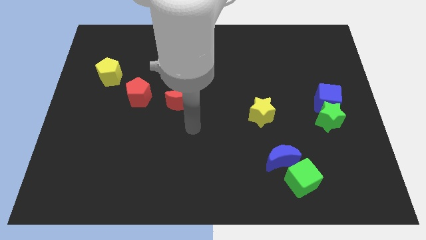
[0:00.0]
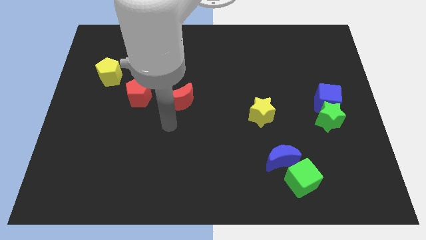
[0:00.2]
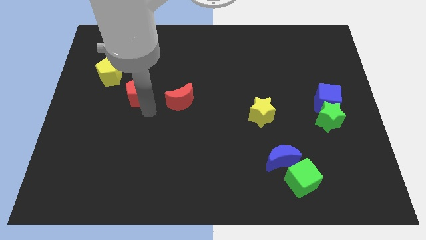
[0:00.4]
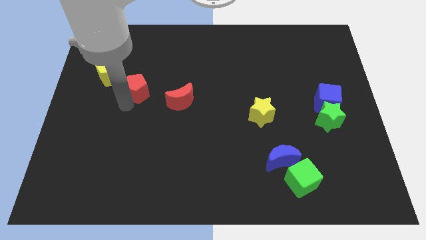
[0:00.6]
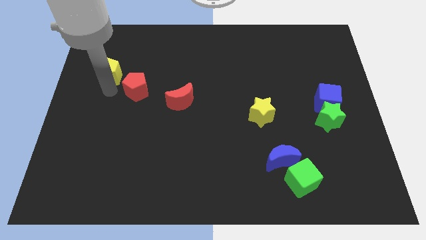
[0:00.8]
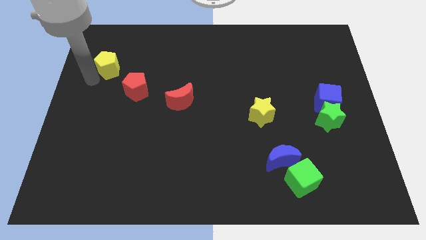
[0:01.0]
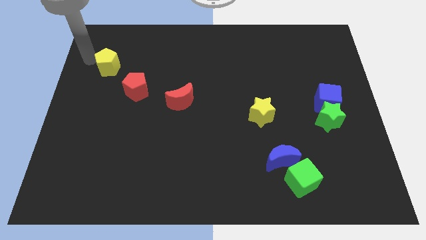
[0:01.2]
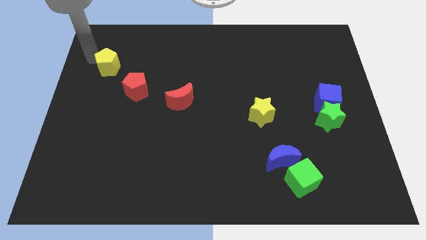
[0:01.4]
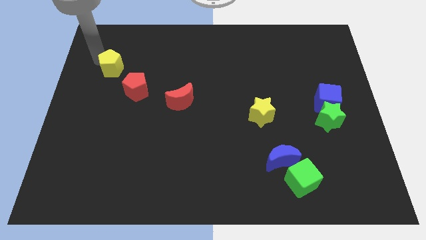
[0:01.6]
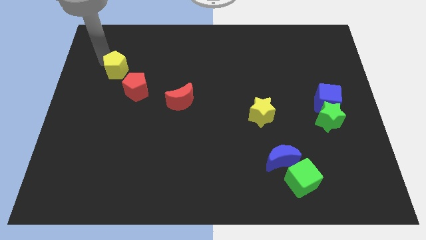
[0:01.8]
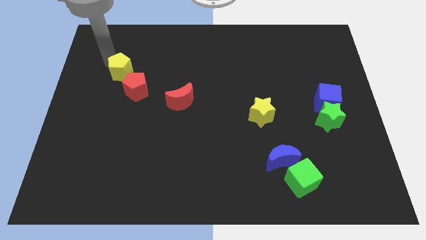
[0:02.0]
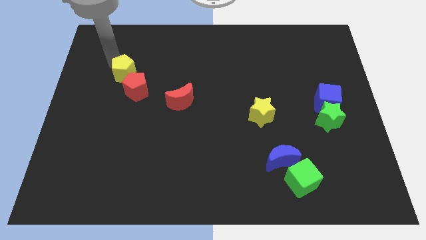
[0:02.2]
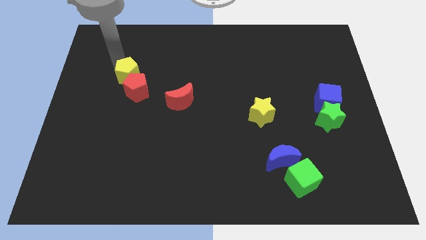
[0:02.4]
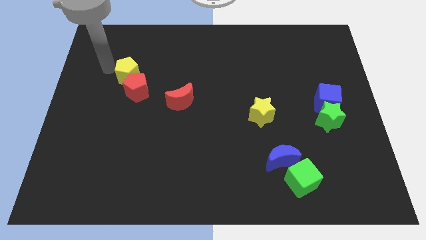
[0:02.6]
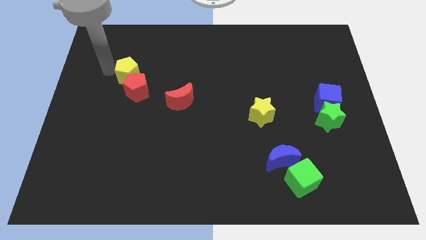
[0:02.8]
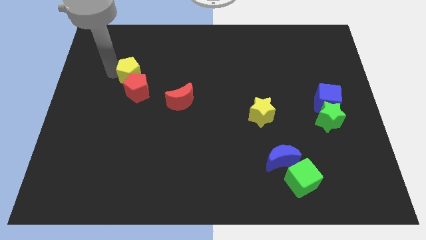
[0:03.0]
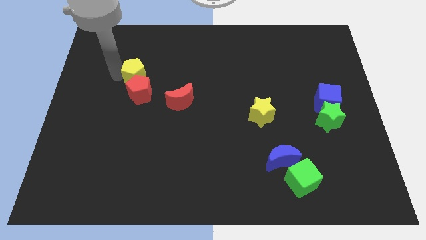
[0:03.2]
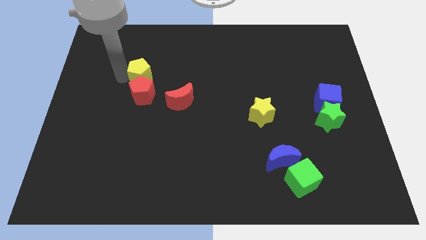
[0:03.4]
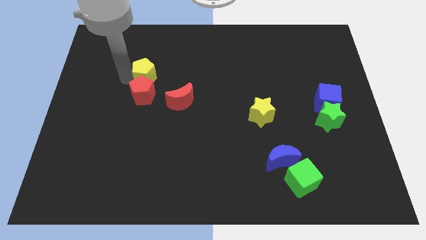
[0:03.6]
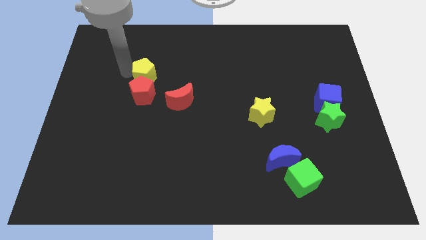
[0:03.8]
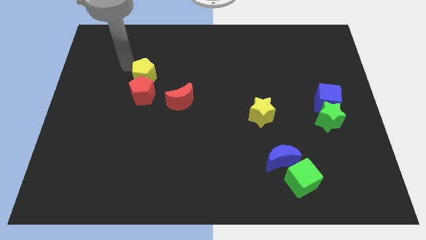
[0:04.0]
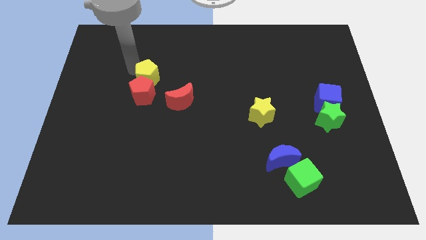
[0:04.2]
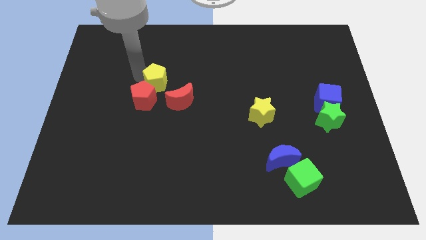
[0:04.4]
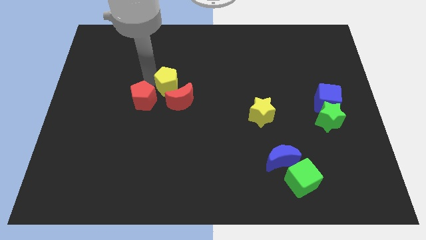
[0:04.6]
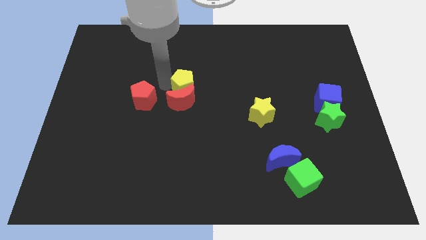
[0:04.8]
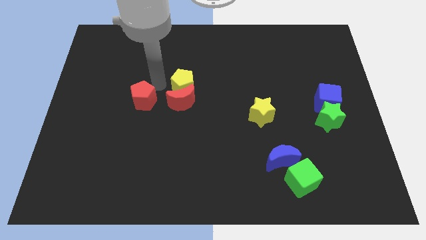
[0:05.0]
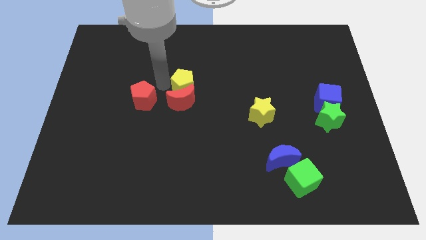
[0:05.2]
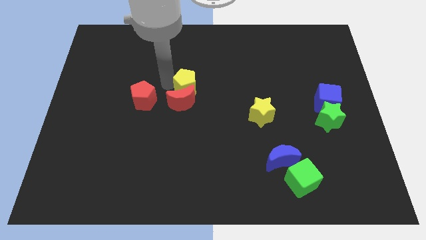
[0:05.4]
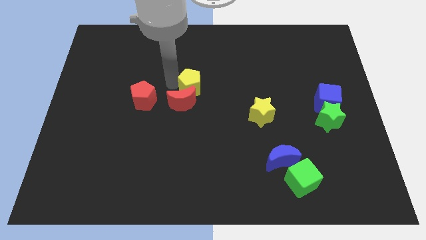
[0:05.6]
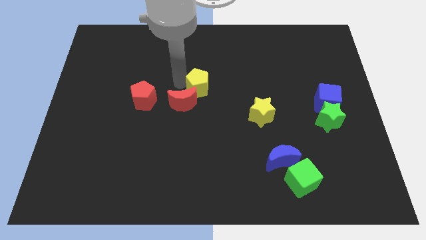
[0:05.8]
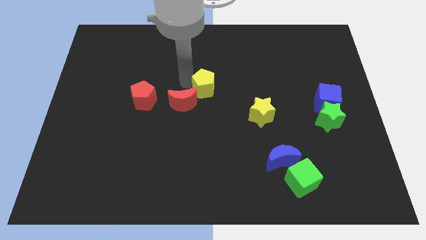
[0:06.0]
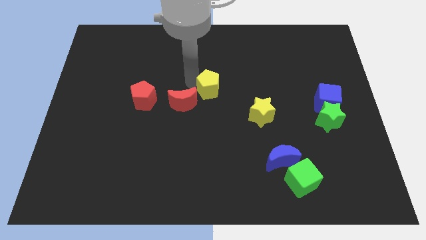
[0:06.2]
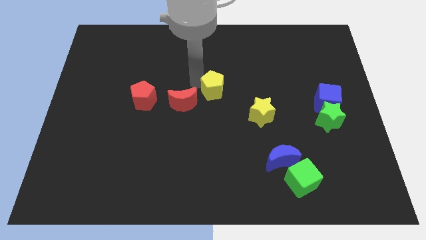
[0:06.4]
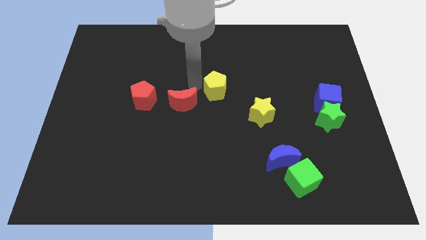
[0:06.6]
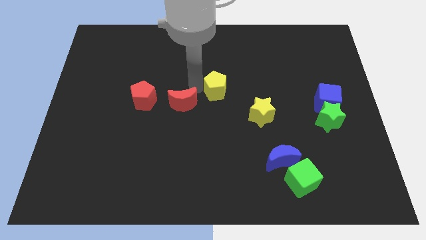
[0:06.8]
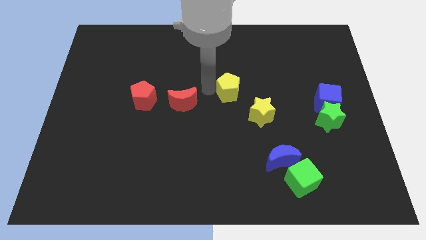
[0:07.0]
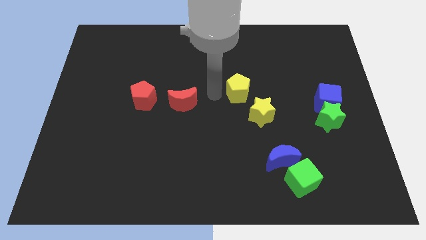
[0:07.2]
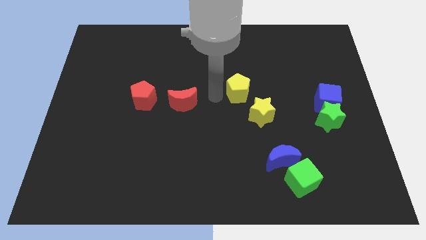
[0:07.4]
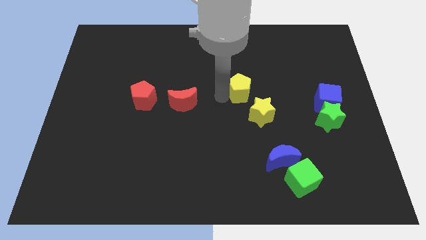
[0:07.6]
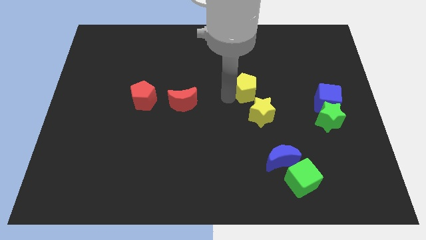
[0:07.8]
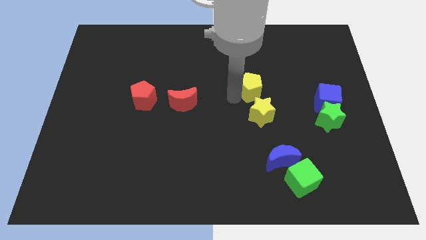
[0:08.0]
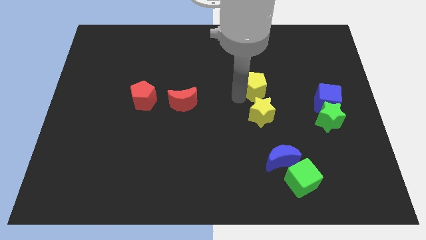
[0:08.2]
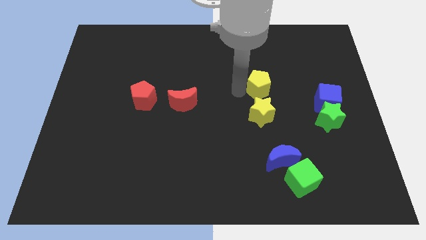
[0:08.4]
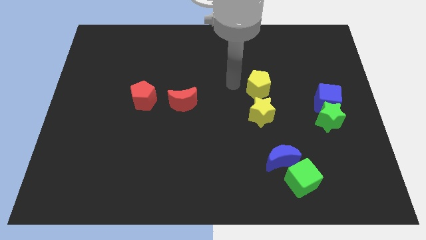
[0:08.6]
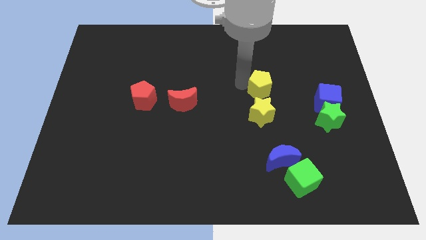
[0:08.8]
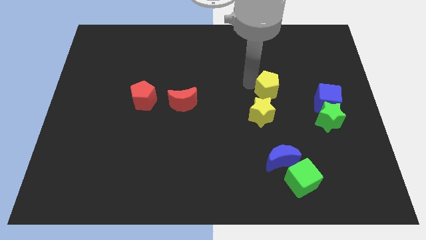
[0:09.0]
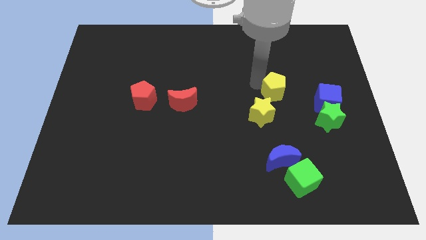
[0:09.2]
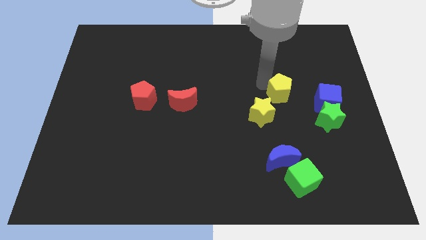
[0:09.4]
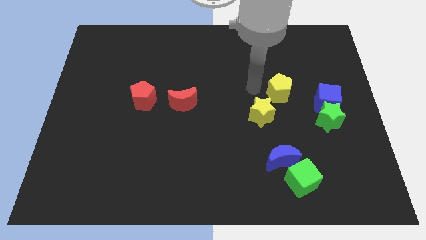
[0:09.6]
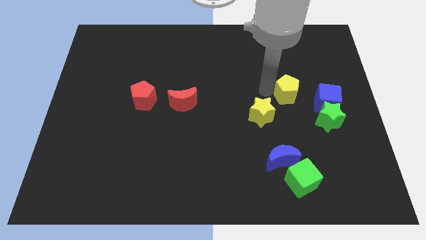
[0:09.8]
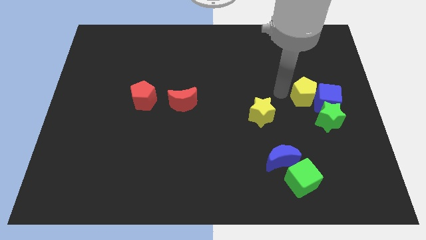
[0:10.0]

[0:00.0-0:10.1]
slide the yellow pentagon next to the blue cube

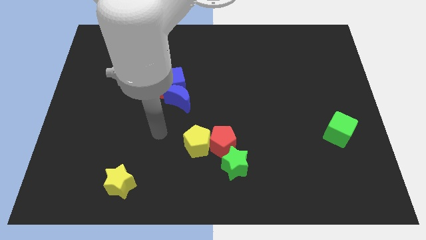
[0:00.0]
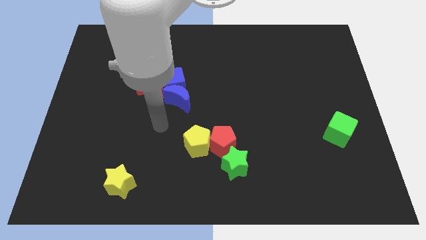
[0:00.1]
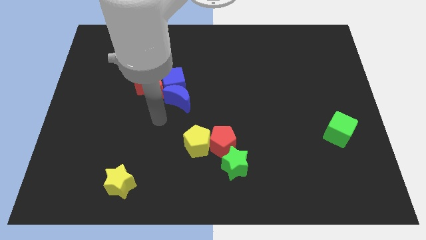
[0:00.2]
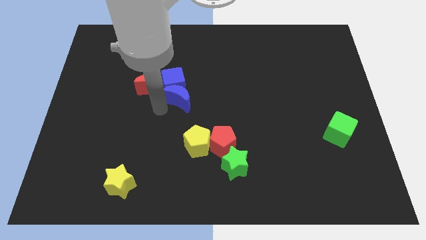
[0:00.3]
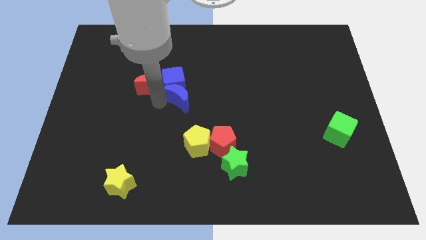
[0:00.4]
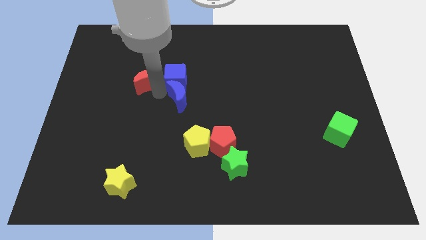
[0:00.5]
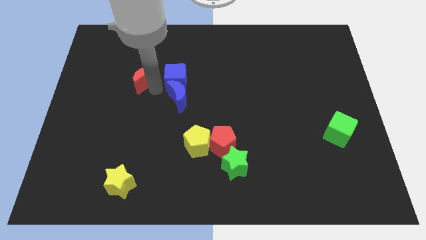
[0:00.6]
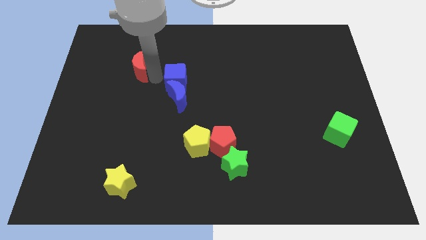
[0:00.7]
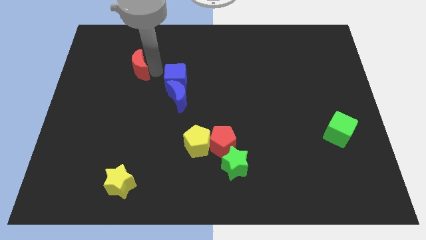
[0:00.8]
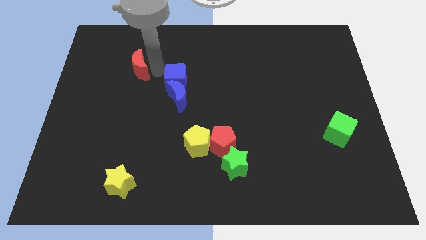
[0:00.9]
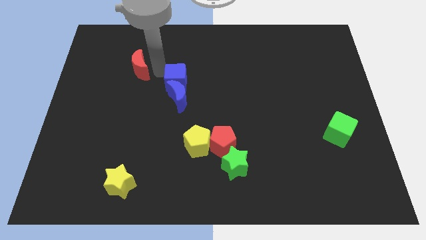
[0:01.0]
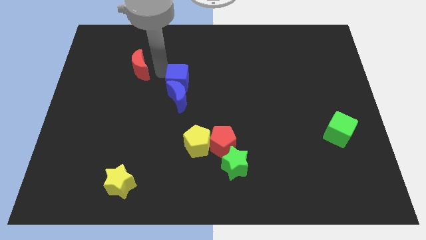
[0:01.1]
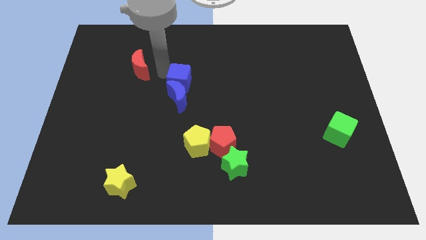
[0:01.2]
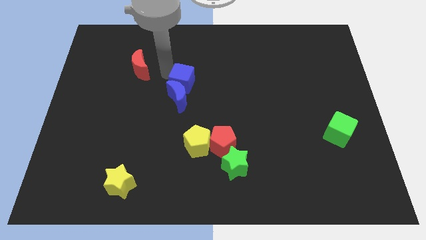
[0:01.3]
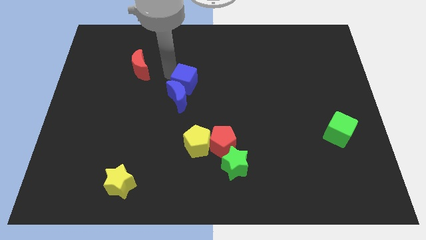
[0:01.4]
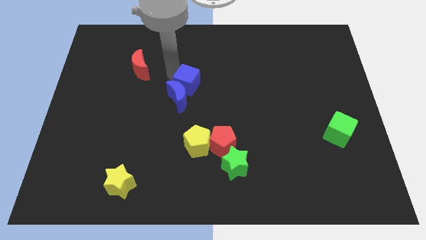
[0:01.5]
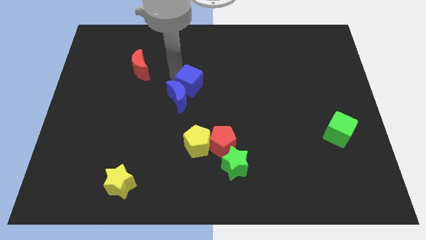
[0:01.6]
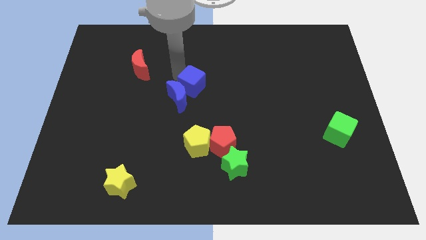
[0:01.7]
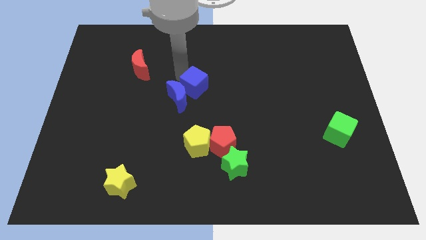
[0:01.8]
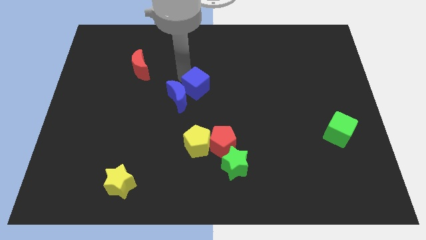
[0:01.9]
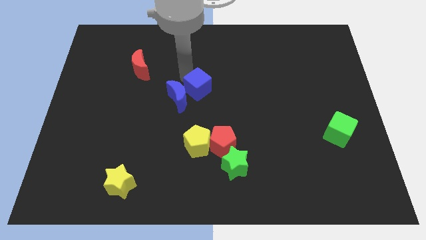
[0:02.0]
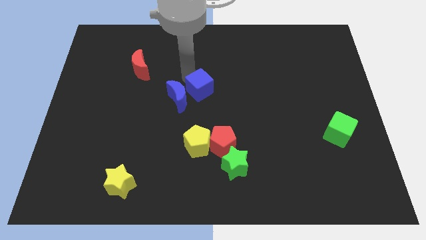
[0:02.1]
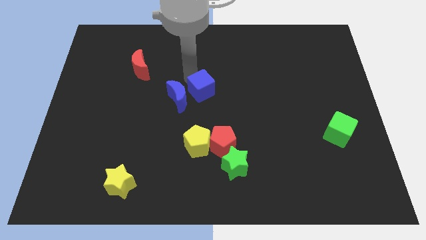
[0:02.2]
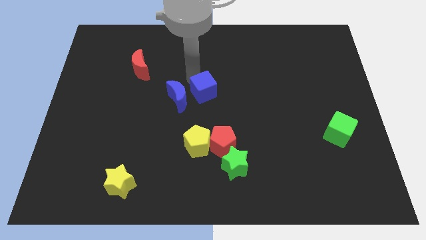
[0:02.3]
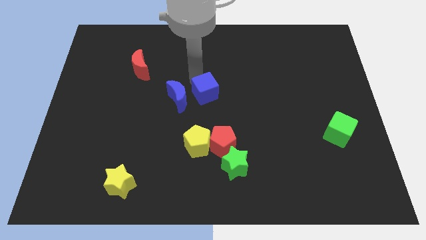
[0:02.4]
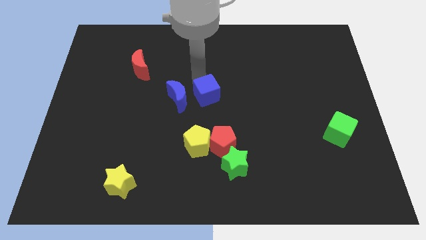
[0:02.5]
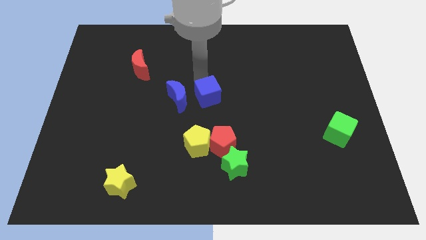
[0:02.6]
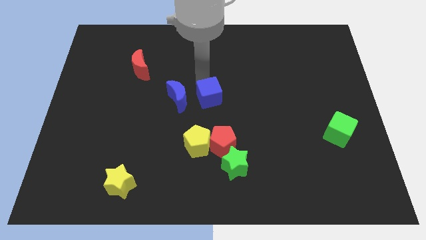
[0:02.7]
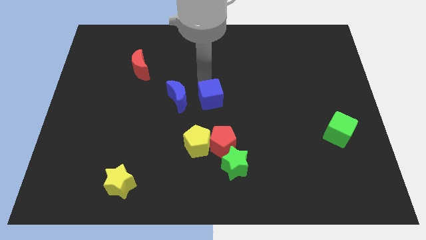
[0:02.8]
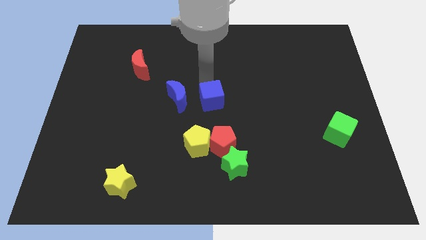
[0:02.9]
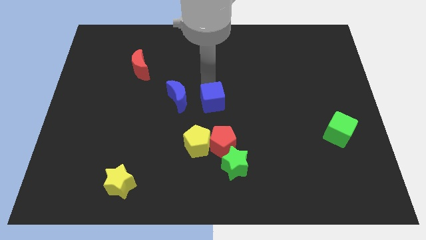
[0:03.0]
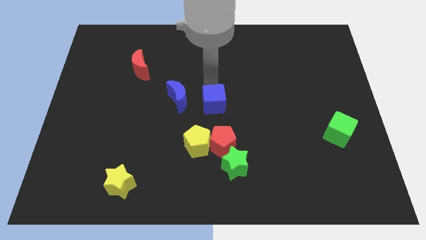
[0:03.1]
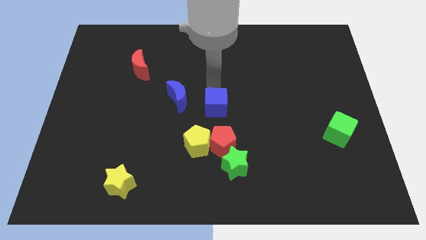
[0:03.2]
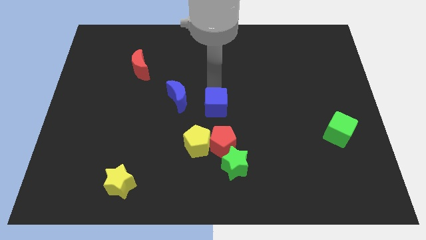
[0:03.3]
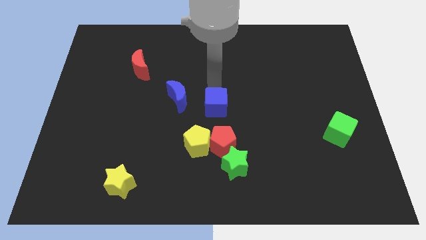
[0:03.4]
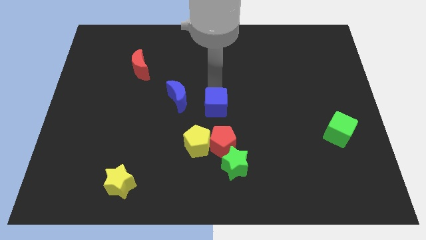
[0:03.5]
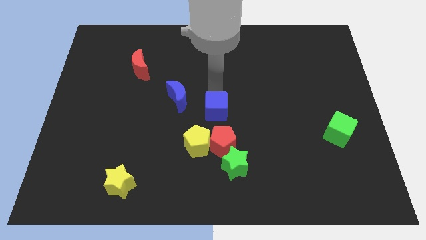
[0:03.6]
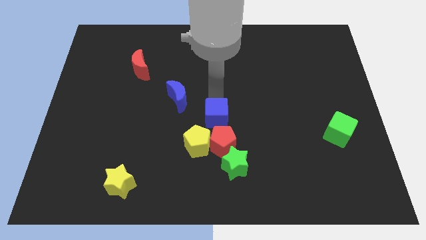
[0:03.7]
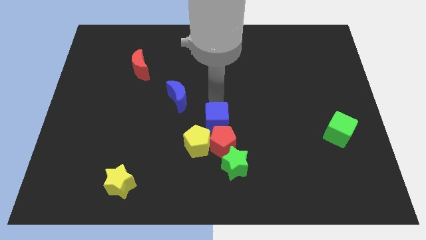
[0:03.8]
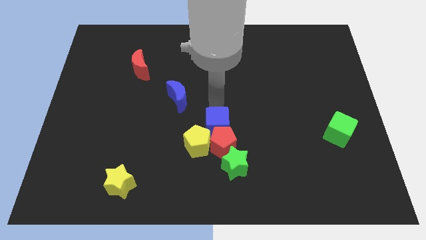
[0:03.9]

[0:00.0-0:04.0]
move the blue cube close to the red pentagon
